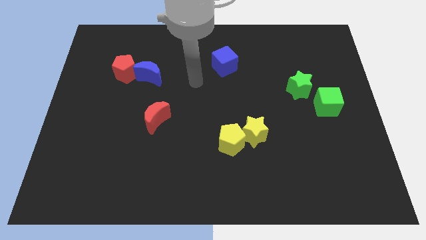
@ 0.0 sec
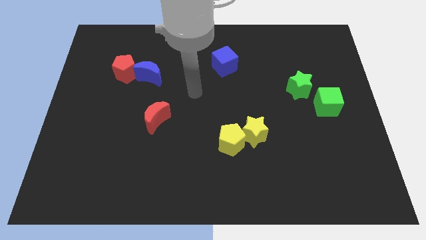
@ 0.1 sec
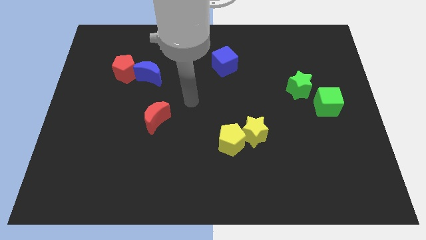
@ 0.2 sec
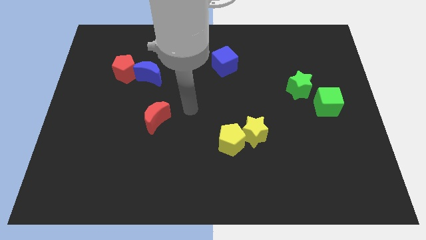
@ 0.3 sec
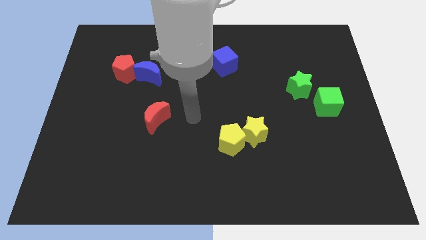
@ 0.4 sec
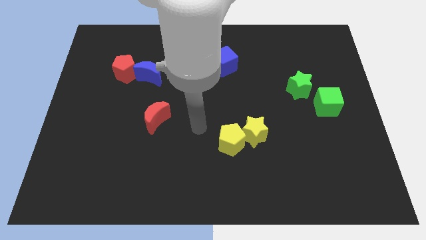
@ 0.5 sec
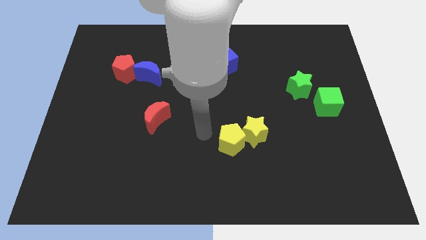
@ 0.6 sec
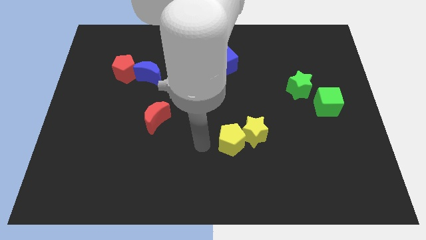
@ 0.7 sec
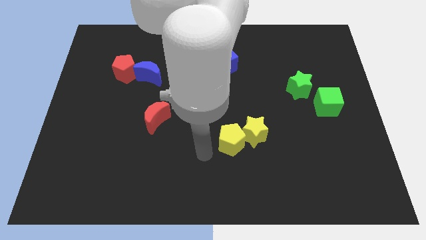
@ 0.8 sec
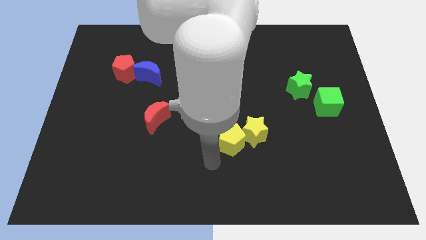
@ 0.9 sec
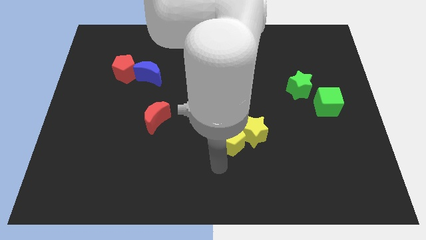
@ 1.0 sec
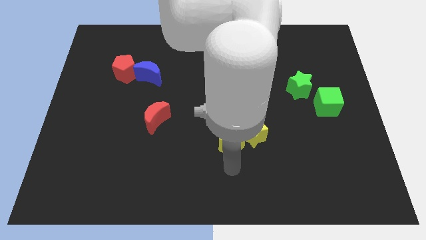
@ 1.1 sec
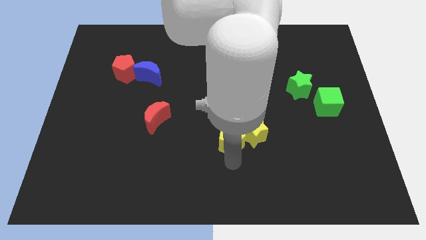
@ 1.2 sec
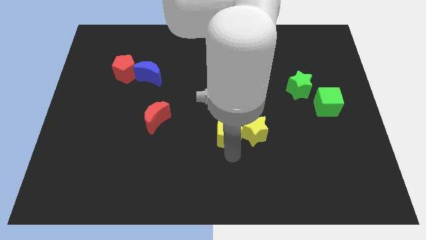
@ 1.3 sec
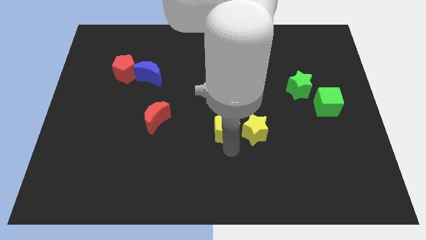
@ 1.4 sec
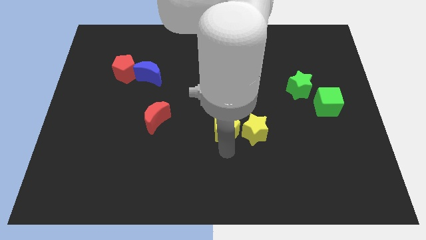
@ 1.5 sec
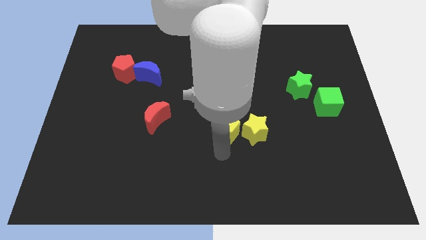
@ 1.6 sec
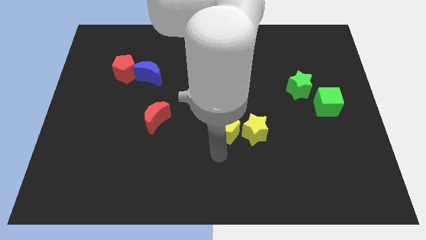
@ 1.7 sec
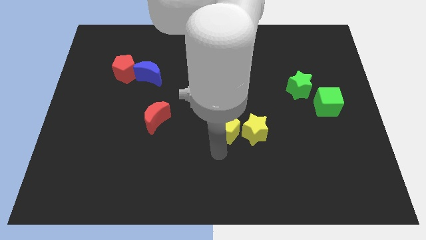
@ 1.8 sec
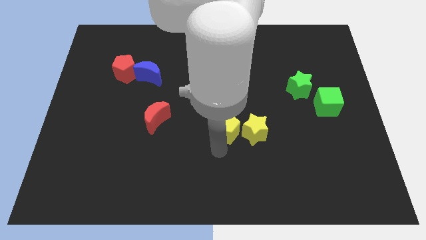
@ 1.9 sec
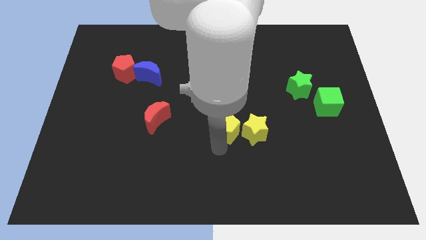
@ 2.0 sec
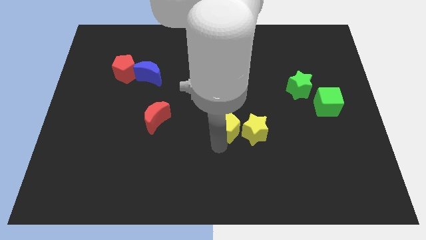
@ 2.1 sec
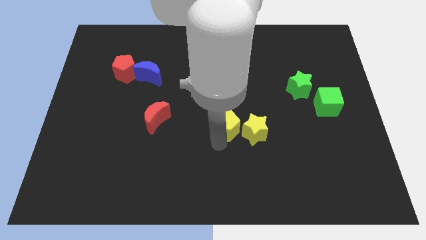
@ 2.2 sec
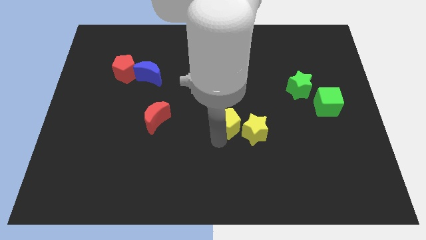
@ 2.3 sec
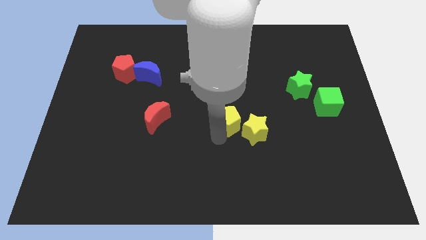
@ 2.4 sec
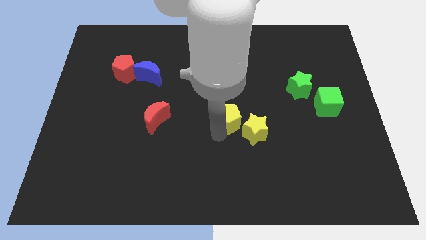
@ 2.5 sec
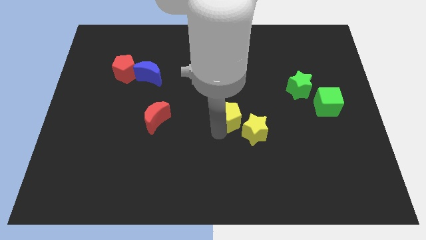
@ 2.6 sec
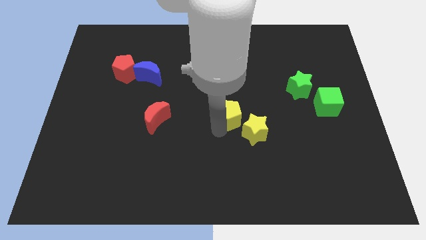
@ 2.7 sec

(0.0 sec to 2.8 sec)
slide the yellow pentagon a bit up

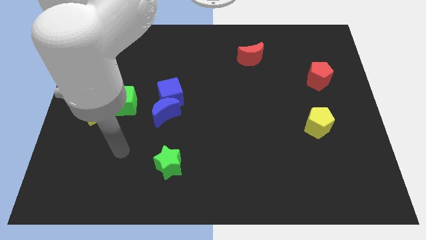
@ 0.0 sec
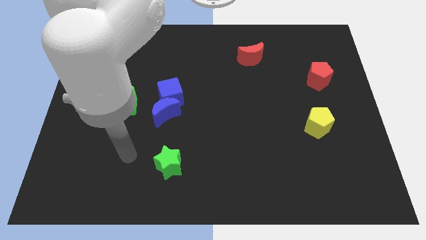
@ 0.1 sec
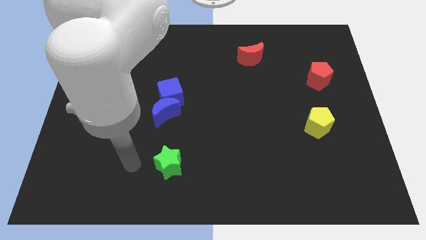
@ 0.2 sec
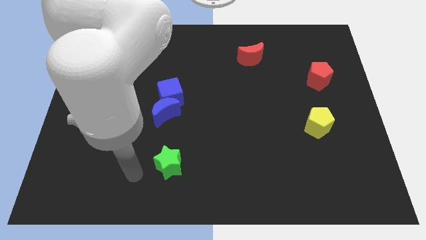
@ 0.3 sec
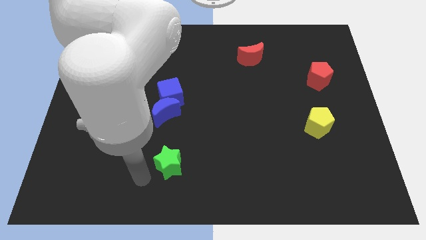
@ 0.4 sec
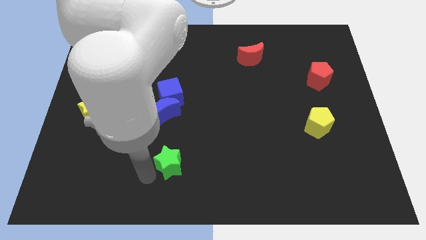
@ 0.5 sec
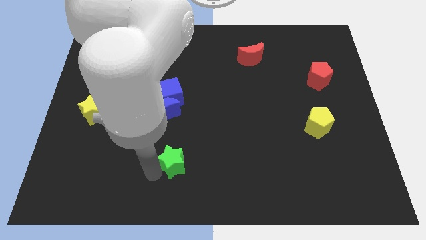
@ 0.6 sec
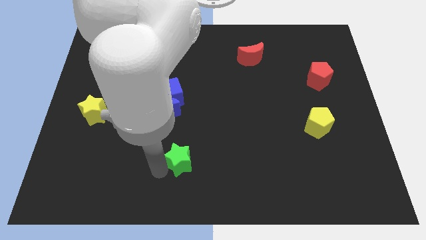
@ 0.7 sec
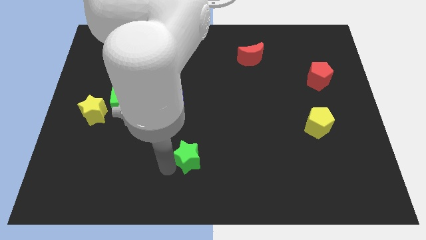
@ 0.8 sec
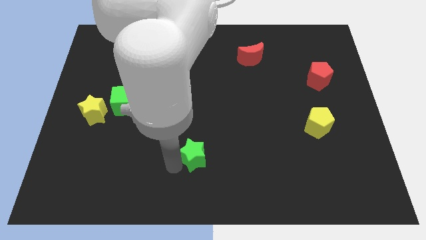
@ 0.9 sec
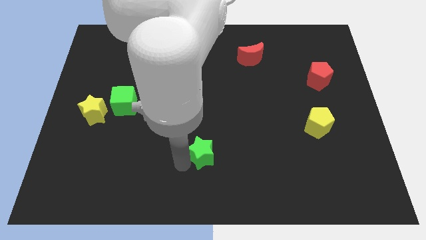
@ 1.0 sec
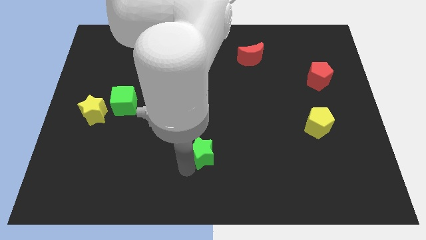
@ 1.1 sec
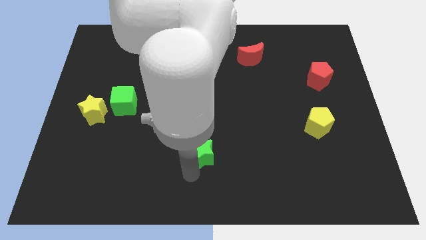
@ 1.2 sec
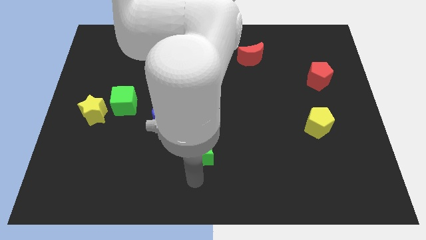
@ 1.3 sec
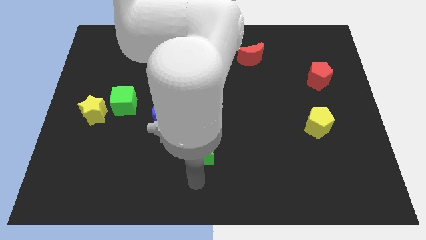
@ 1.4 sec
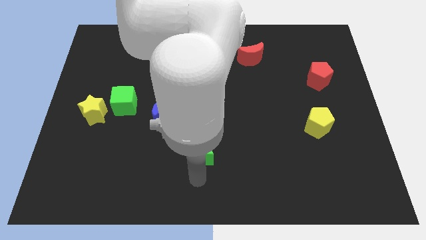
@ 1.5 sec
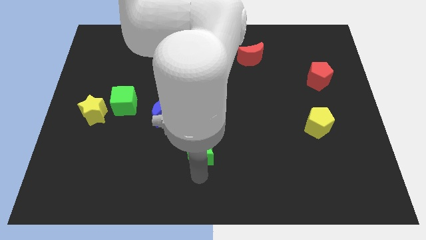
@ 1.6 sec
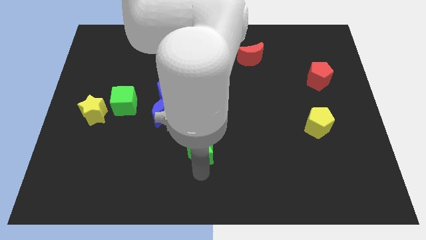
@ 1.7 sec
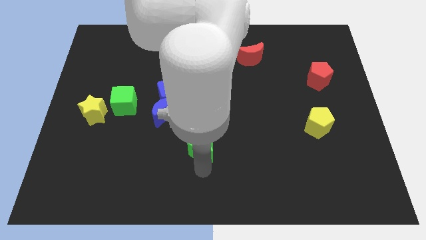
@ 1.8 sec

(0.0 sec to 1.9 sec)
move the green star a little up and right

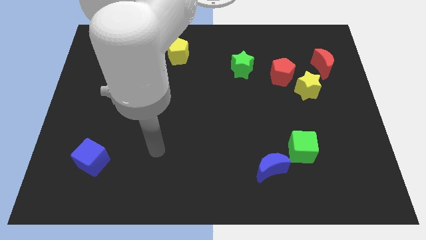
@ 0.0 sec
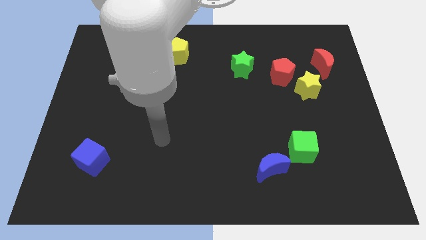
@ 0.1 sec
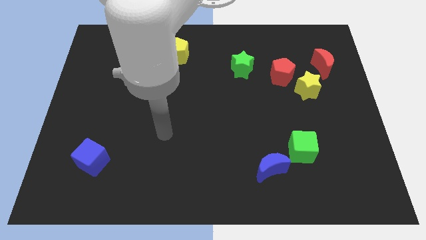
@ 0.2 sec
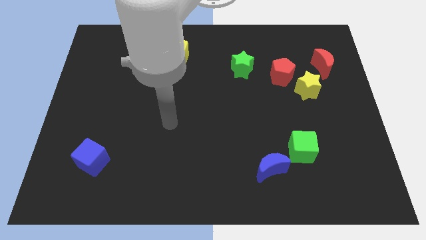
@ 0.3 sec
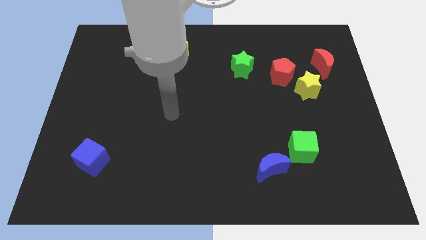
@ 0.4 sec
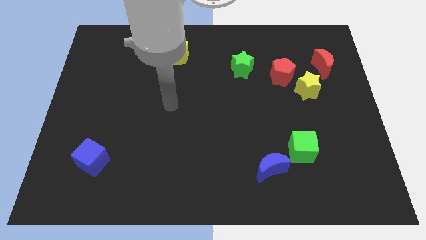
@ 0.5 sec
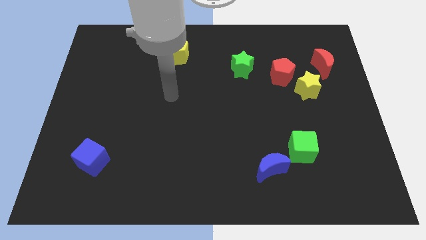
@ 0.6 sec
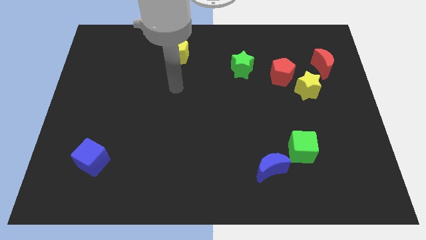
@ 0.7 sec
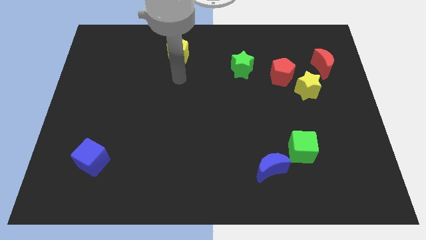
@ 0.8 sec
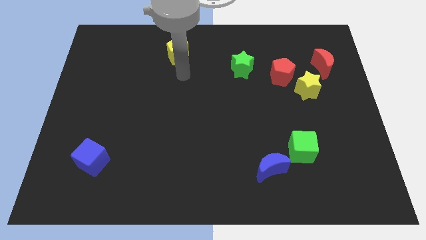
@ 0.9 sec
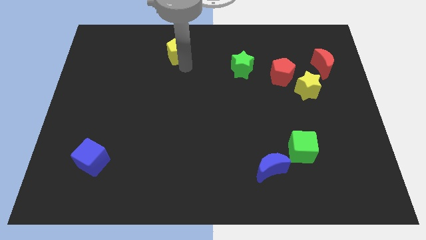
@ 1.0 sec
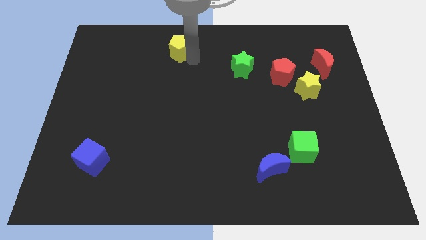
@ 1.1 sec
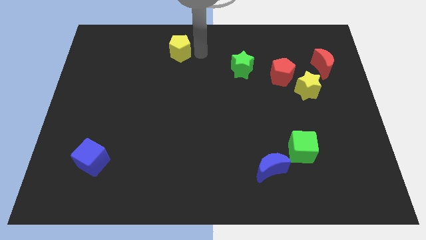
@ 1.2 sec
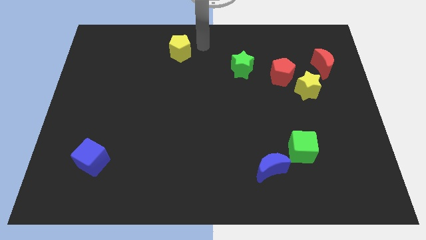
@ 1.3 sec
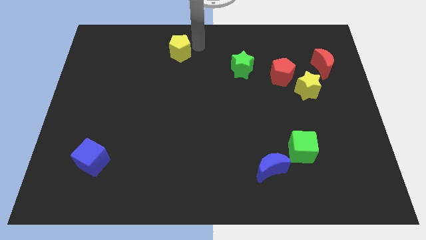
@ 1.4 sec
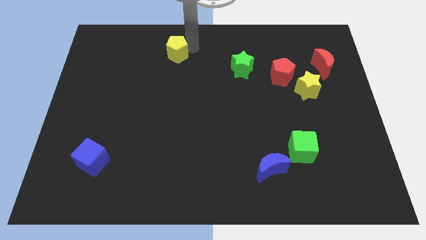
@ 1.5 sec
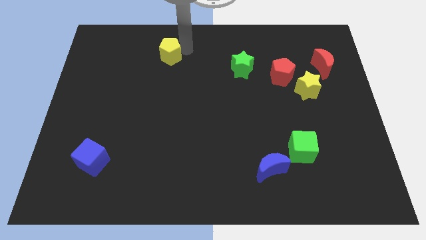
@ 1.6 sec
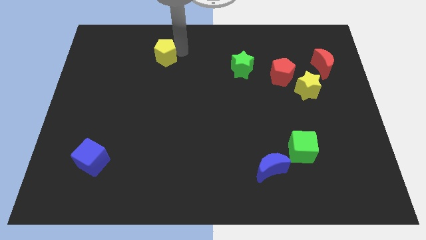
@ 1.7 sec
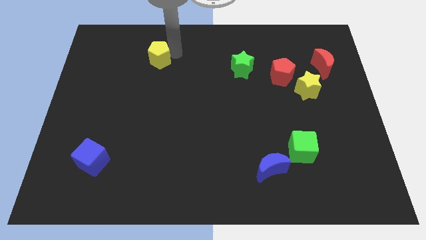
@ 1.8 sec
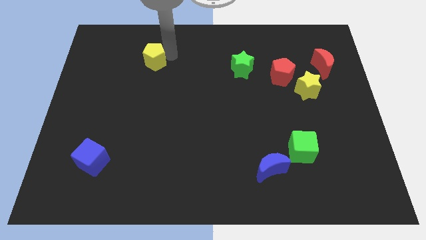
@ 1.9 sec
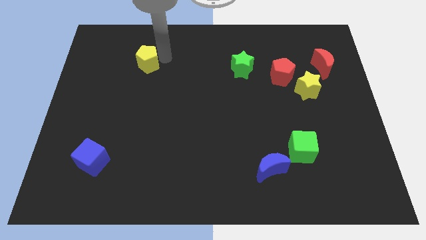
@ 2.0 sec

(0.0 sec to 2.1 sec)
push the yellow pentagon a little left

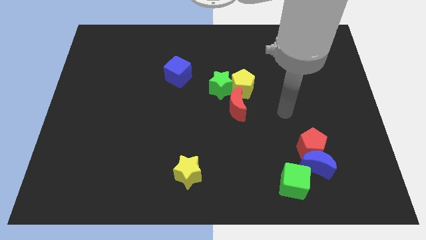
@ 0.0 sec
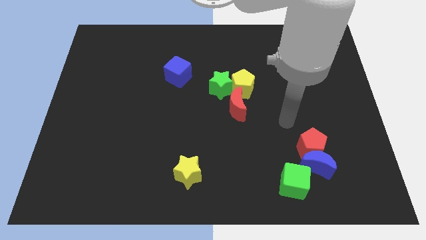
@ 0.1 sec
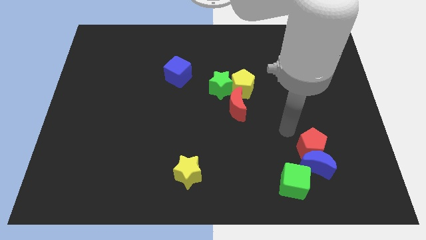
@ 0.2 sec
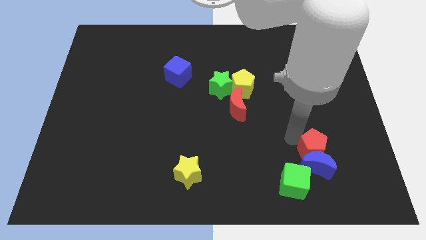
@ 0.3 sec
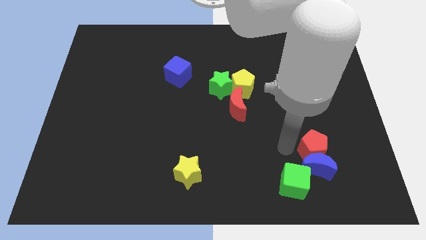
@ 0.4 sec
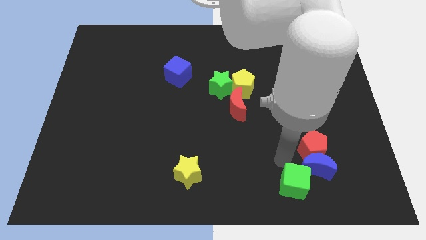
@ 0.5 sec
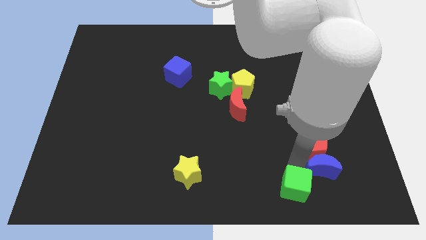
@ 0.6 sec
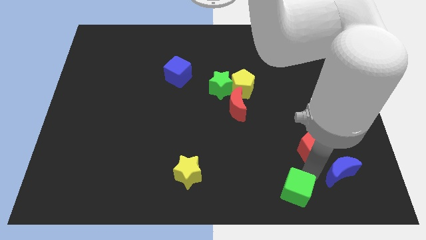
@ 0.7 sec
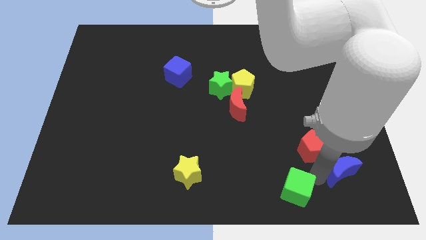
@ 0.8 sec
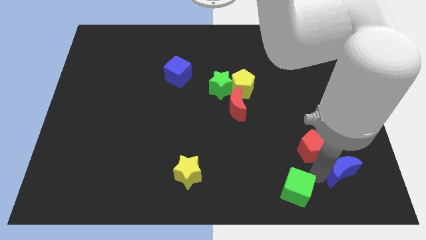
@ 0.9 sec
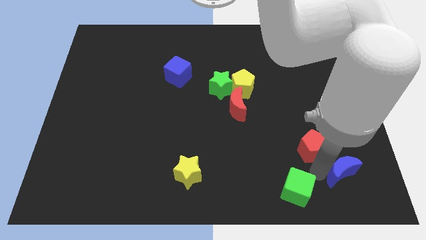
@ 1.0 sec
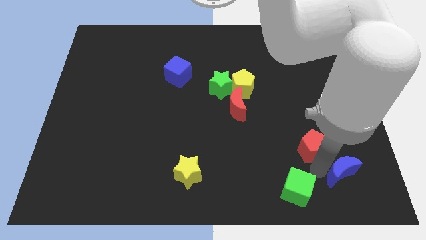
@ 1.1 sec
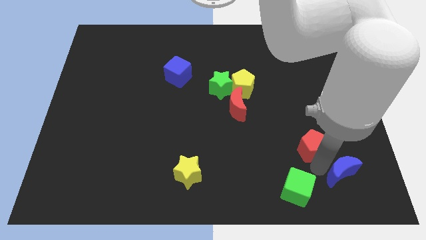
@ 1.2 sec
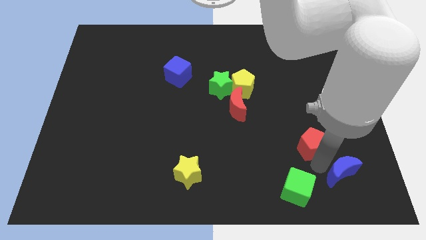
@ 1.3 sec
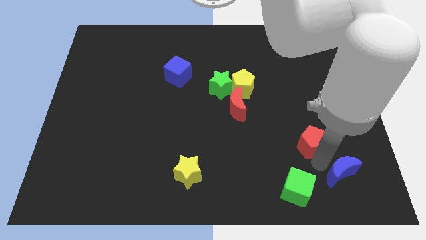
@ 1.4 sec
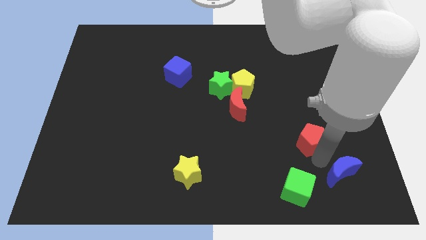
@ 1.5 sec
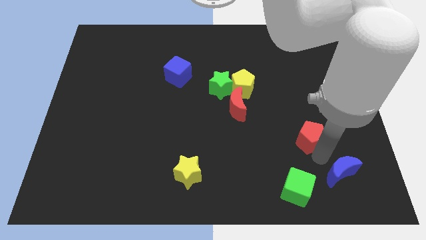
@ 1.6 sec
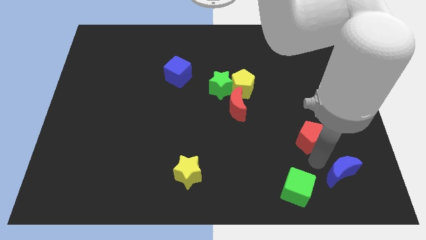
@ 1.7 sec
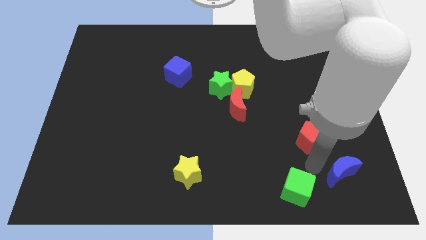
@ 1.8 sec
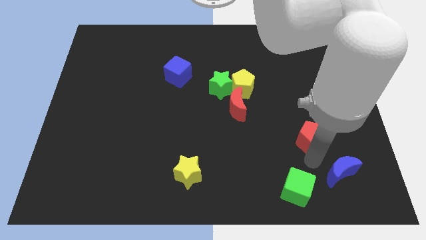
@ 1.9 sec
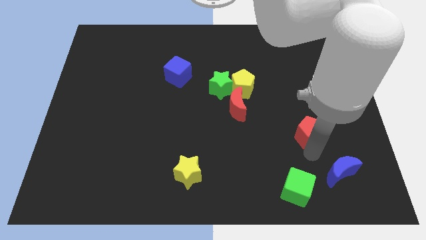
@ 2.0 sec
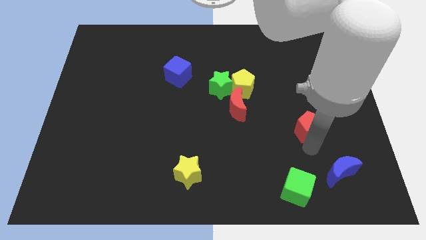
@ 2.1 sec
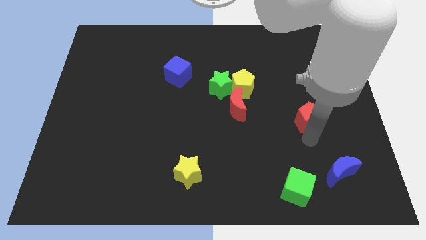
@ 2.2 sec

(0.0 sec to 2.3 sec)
slightly move the red pentagon upwards
